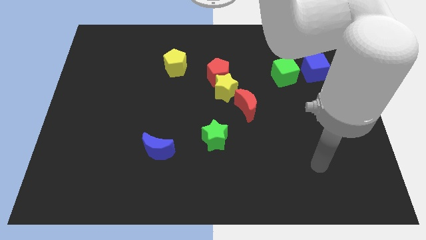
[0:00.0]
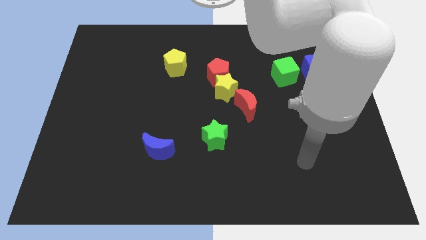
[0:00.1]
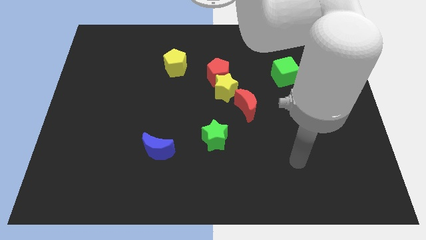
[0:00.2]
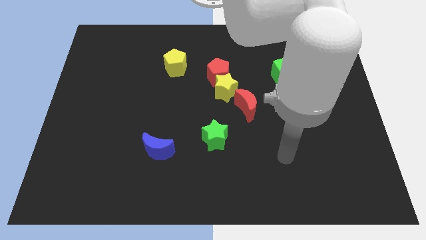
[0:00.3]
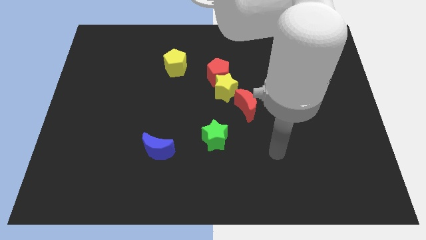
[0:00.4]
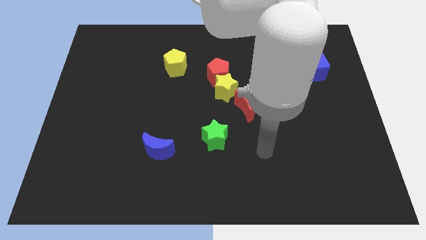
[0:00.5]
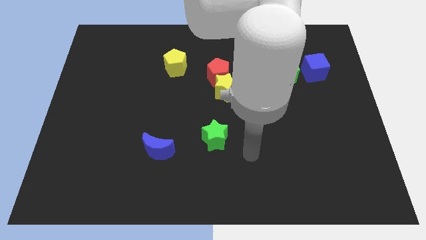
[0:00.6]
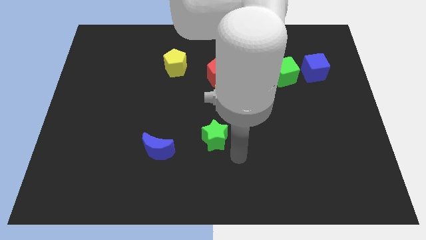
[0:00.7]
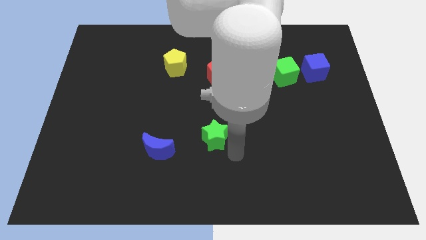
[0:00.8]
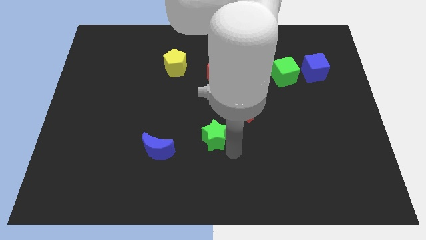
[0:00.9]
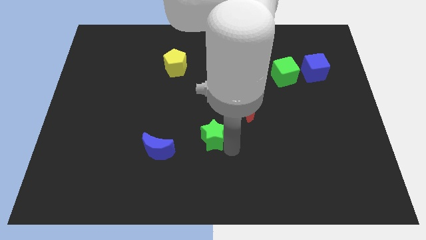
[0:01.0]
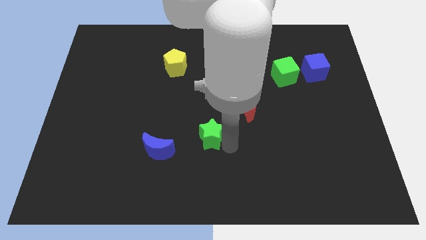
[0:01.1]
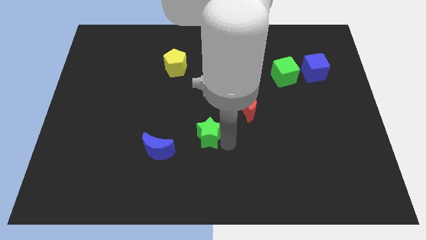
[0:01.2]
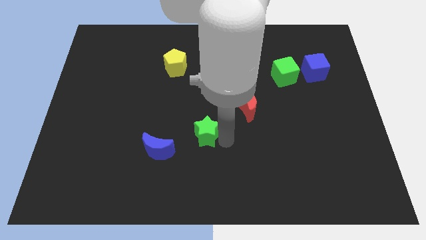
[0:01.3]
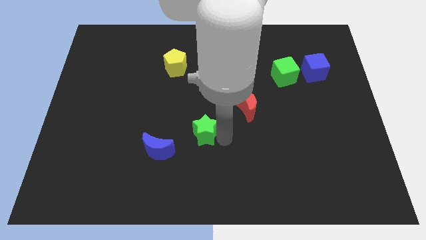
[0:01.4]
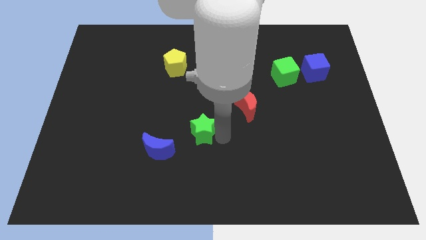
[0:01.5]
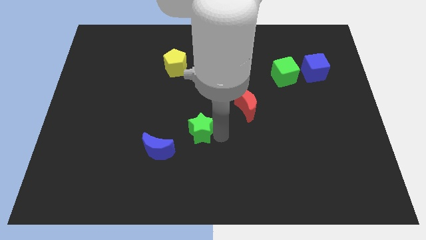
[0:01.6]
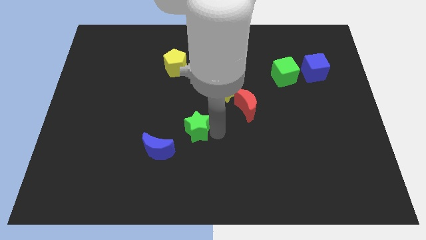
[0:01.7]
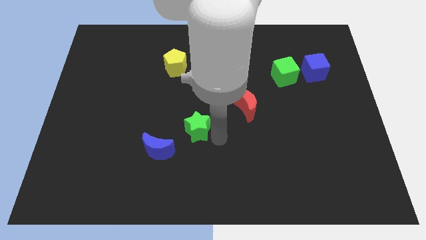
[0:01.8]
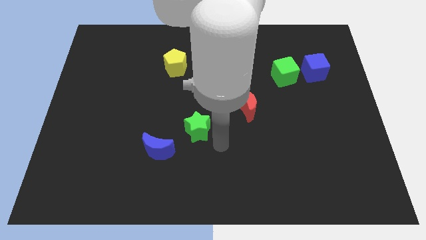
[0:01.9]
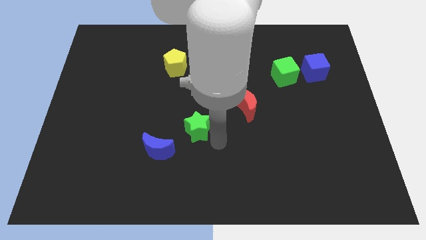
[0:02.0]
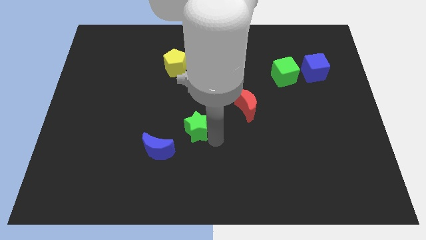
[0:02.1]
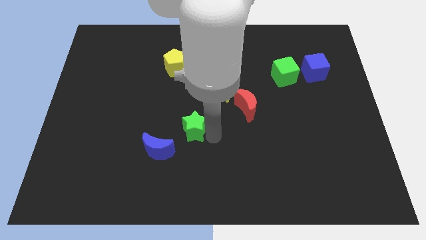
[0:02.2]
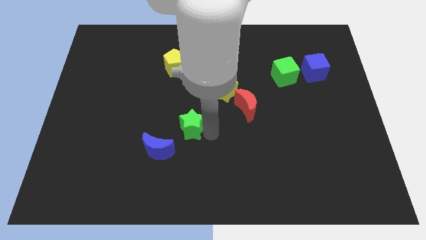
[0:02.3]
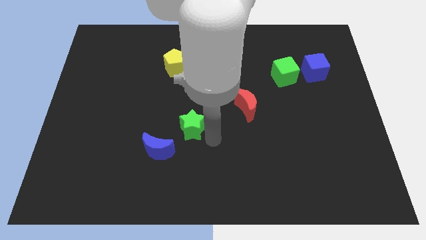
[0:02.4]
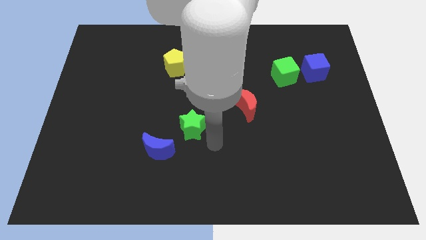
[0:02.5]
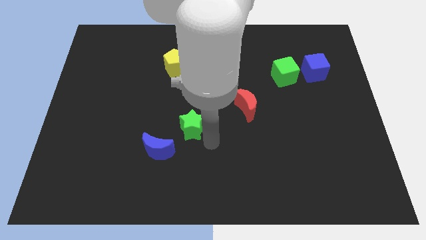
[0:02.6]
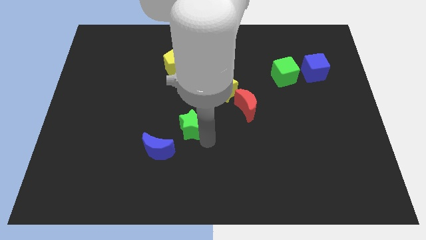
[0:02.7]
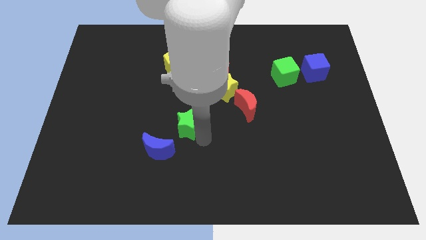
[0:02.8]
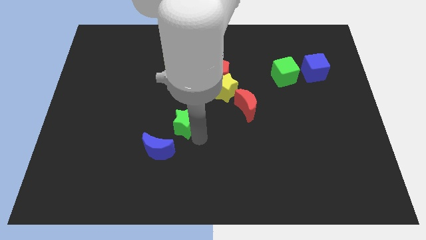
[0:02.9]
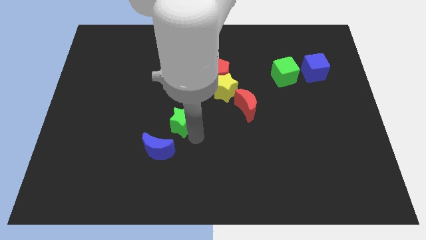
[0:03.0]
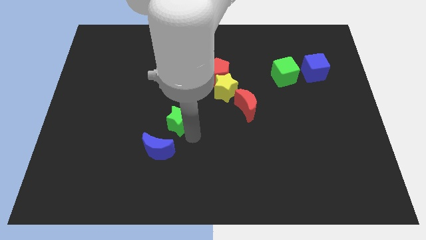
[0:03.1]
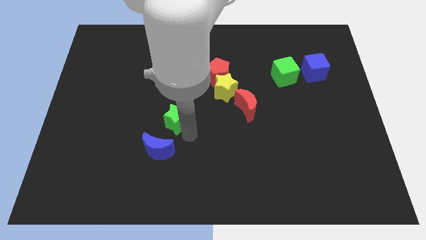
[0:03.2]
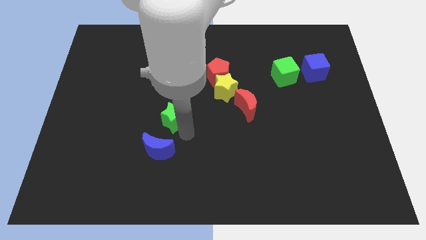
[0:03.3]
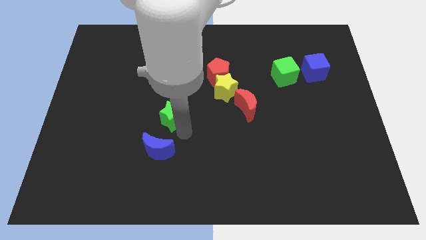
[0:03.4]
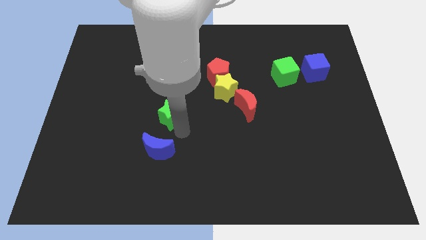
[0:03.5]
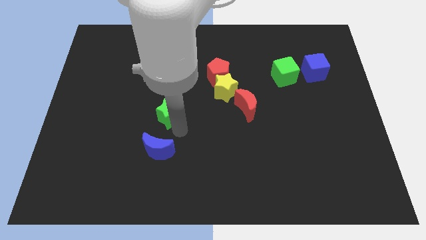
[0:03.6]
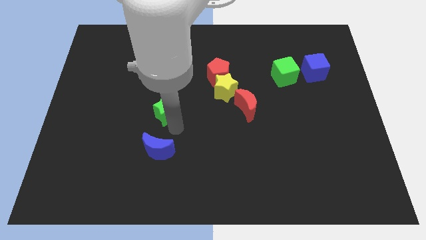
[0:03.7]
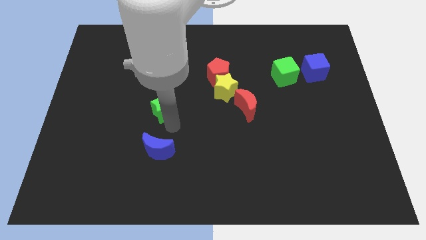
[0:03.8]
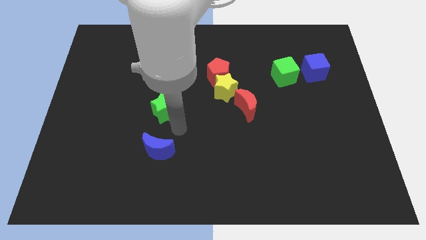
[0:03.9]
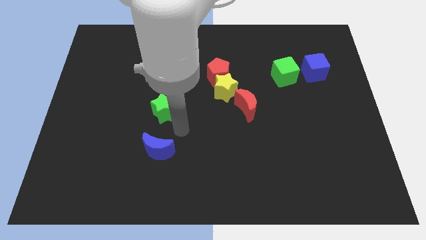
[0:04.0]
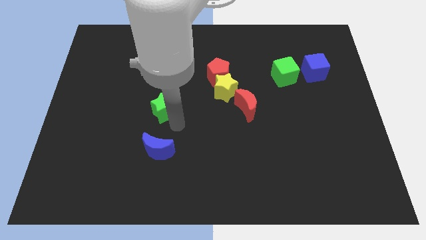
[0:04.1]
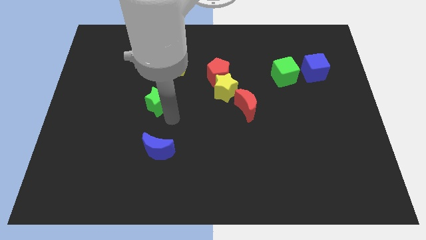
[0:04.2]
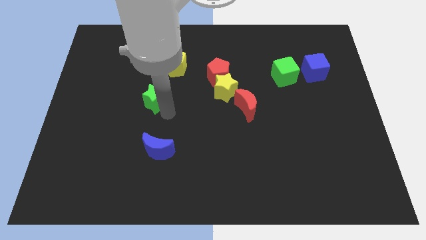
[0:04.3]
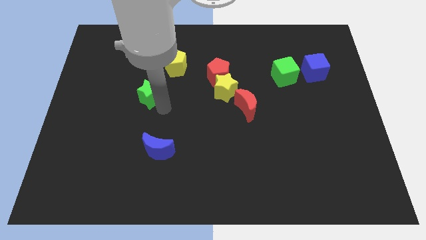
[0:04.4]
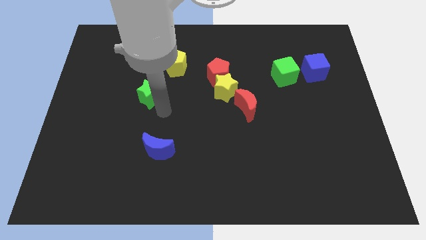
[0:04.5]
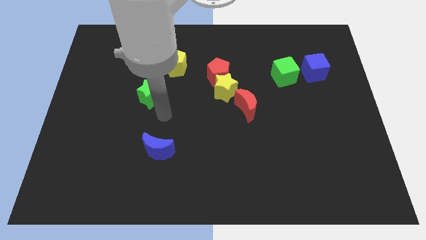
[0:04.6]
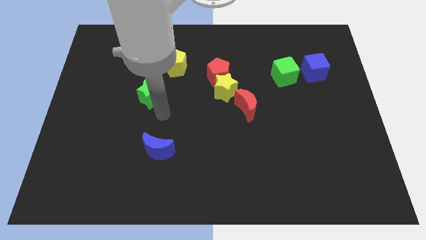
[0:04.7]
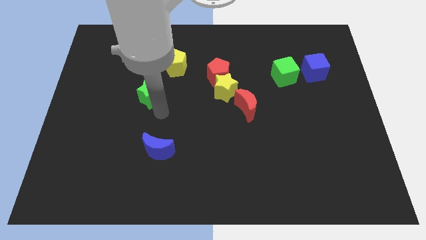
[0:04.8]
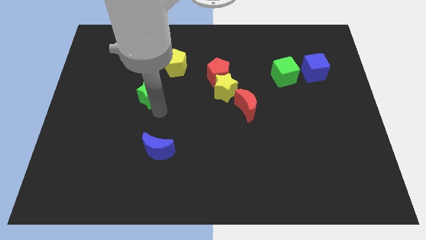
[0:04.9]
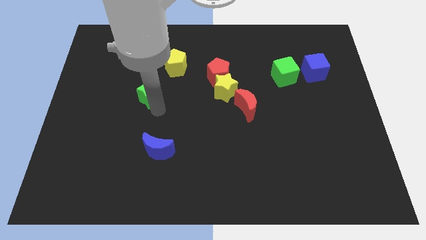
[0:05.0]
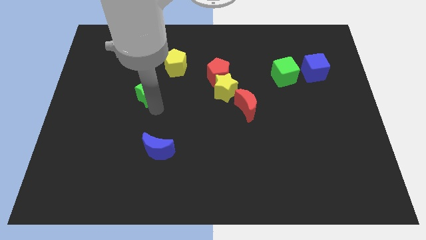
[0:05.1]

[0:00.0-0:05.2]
push the green star up and then to the left

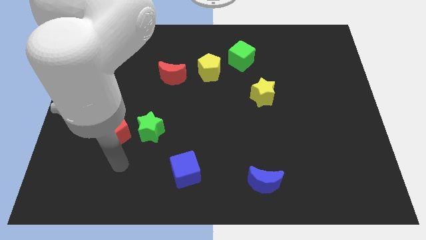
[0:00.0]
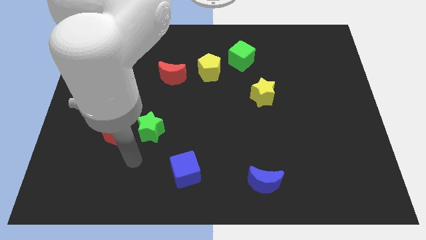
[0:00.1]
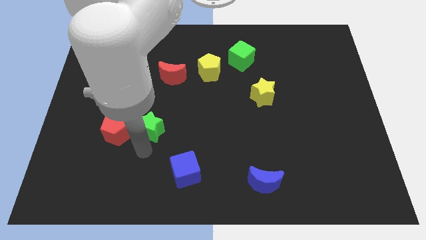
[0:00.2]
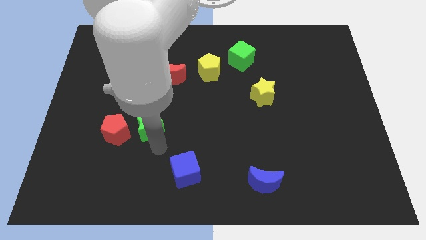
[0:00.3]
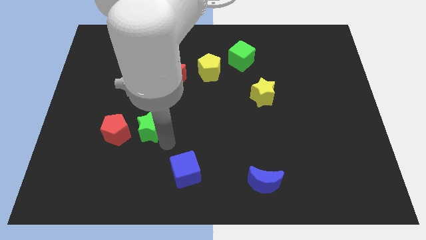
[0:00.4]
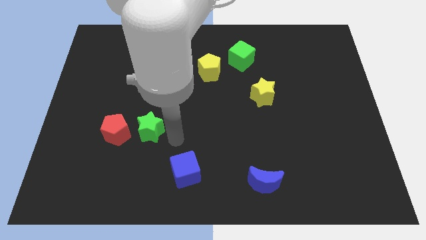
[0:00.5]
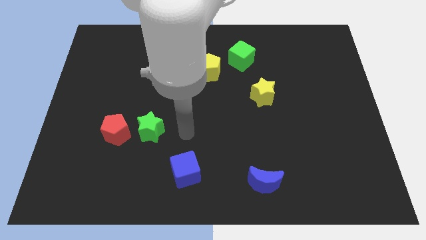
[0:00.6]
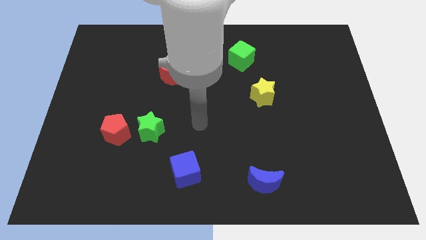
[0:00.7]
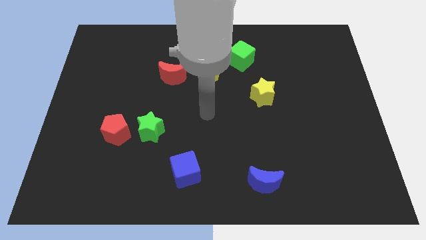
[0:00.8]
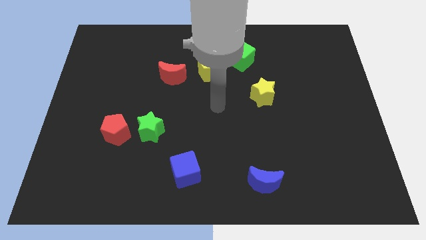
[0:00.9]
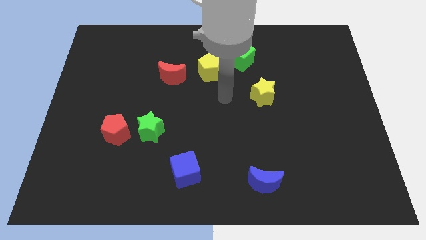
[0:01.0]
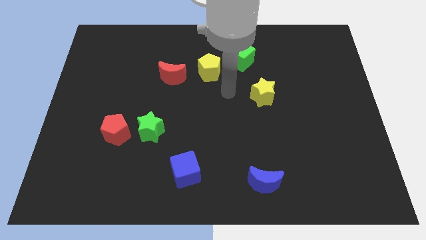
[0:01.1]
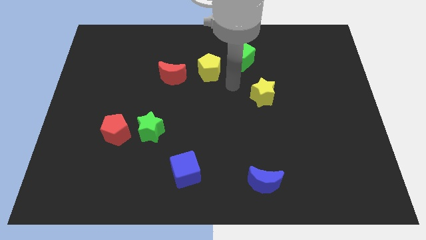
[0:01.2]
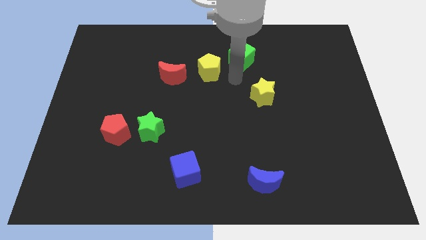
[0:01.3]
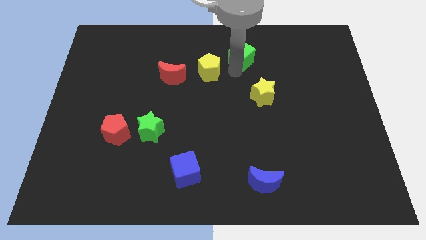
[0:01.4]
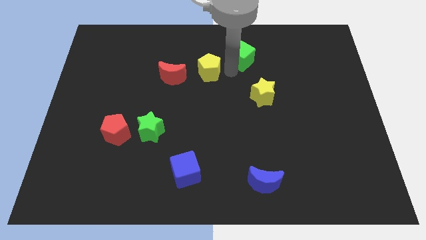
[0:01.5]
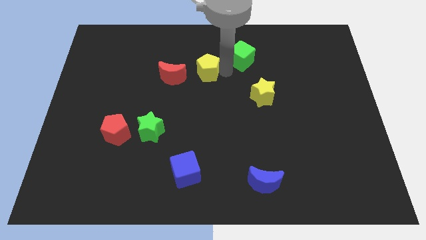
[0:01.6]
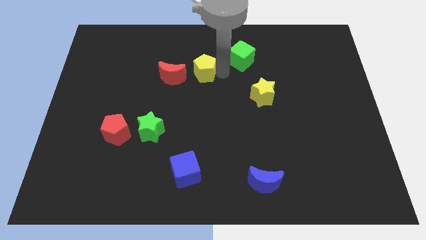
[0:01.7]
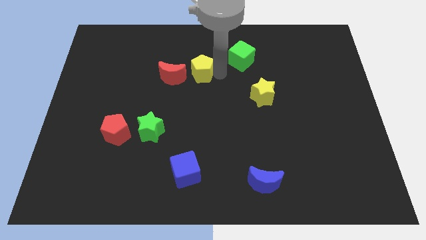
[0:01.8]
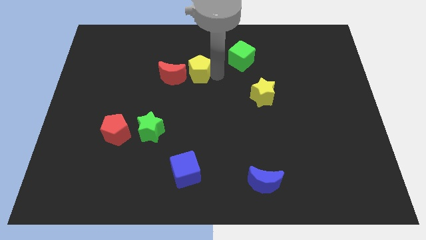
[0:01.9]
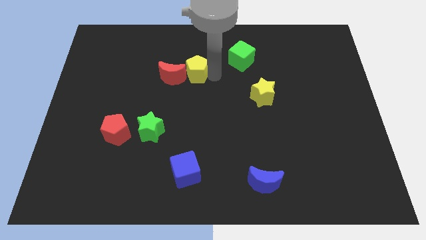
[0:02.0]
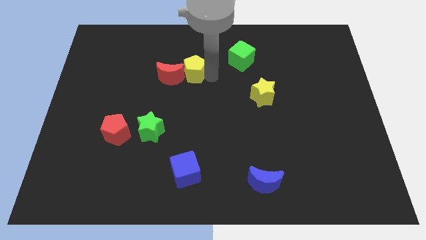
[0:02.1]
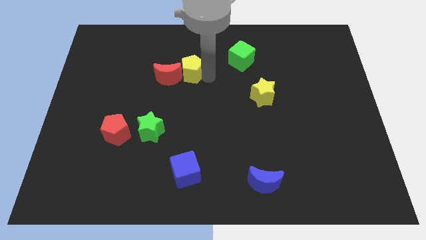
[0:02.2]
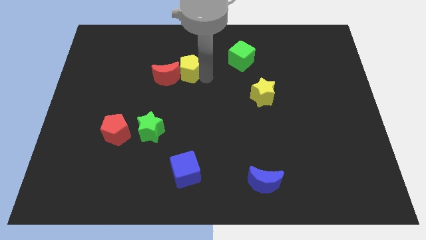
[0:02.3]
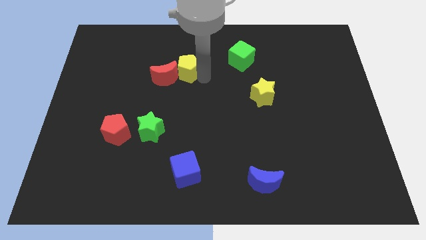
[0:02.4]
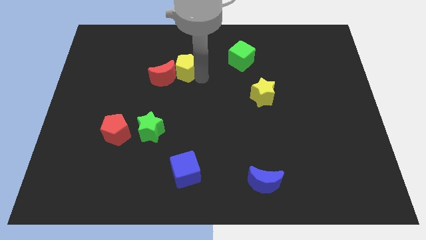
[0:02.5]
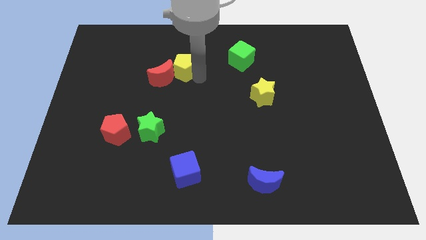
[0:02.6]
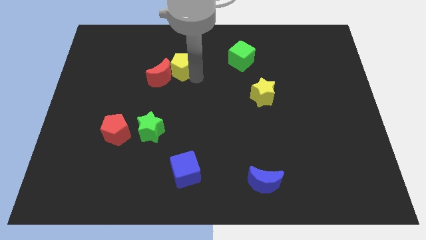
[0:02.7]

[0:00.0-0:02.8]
push the yellow pentagon a little left
